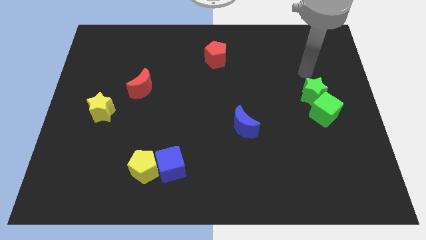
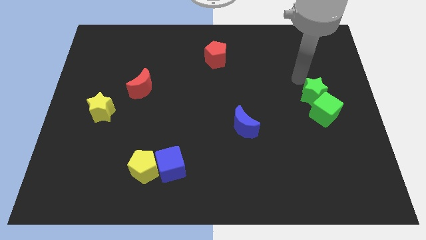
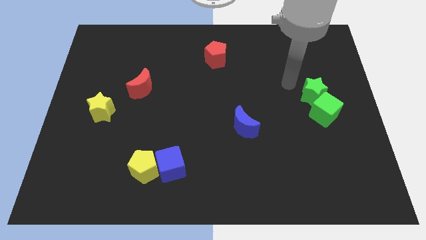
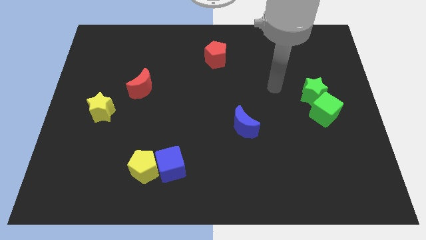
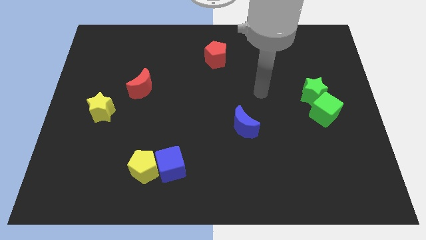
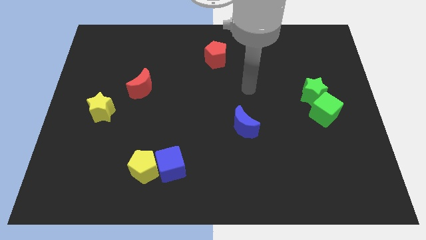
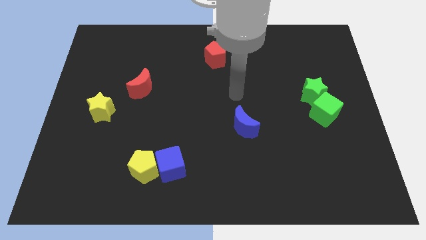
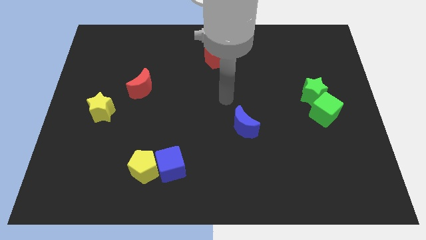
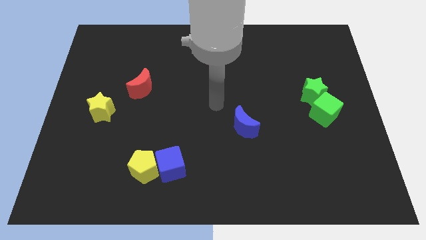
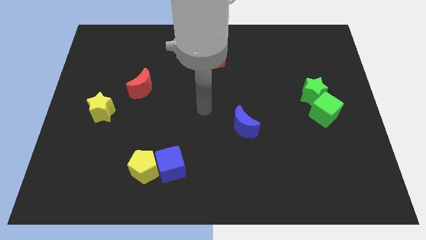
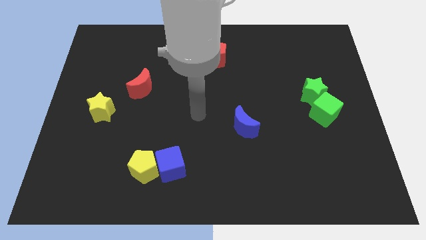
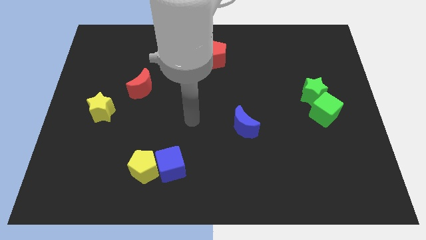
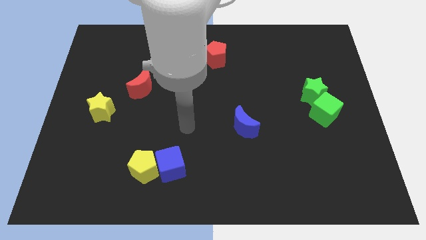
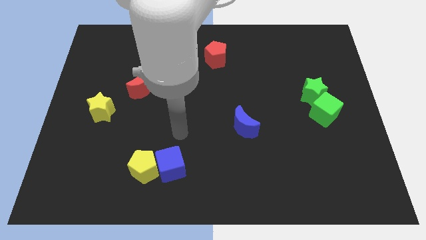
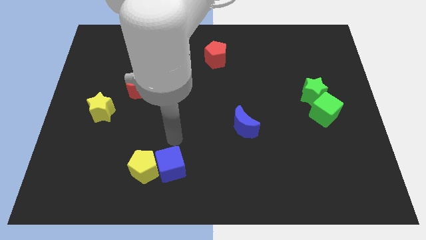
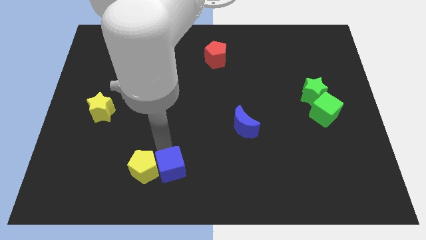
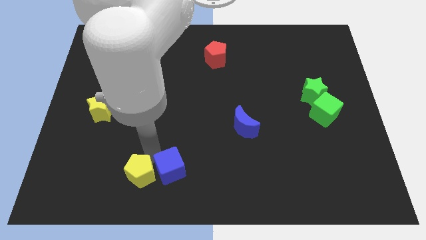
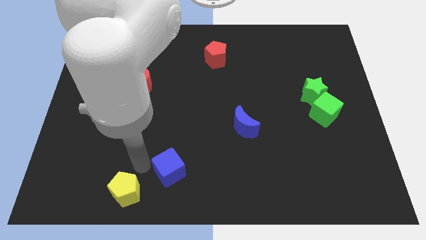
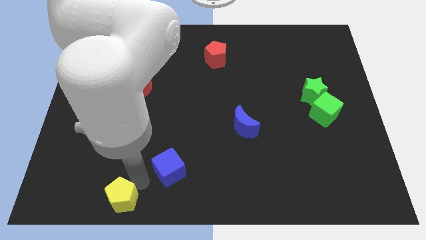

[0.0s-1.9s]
pull the blue cube apart from the yellow pentagon

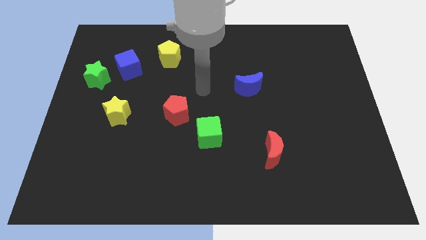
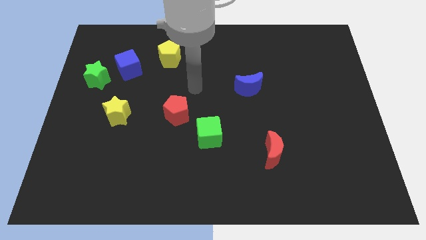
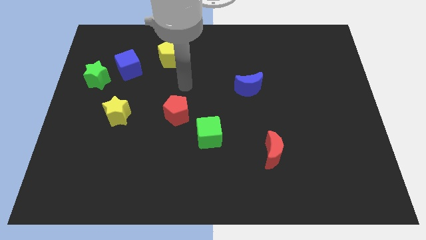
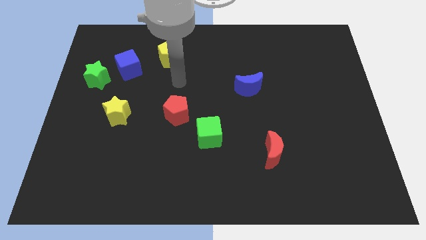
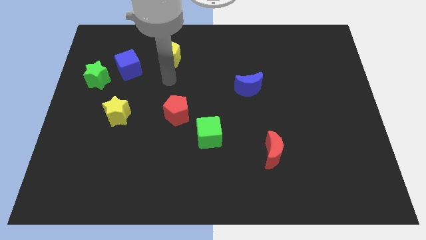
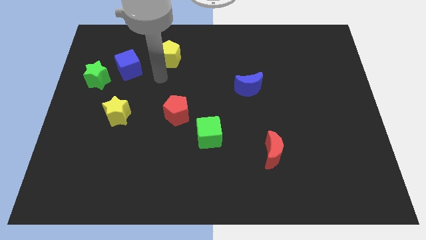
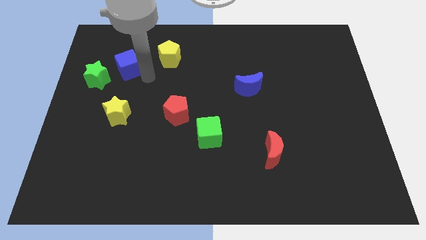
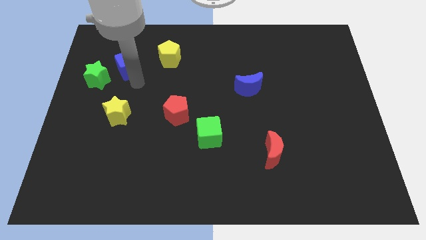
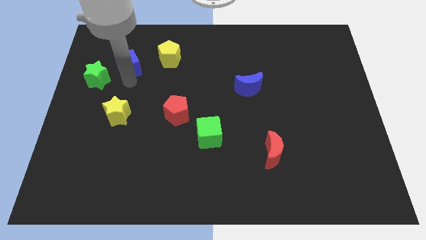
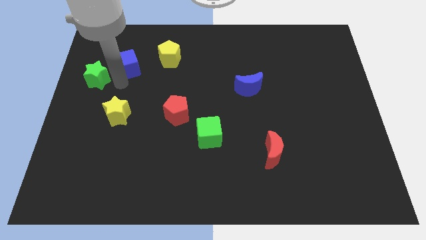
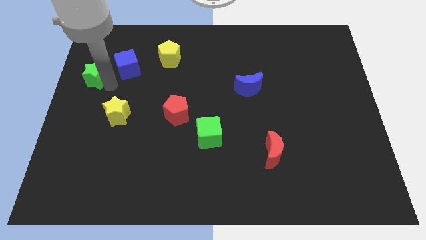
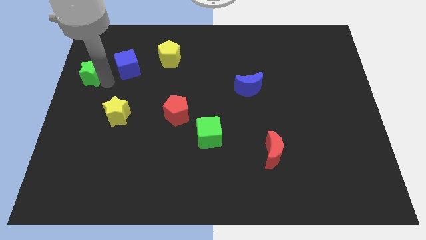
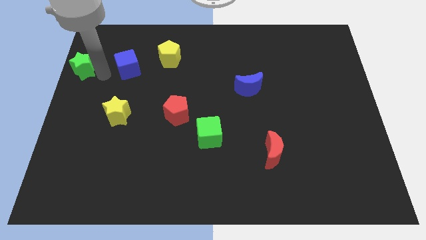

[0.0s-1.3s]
move the blue cube away from the green star

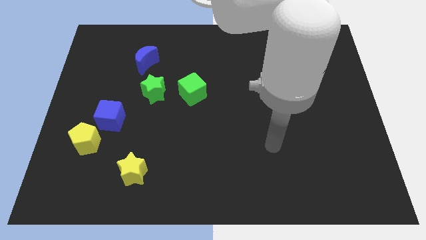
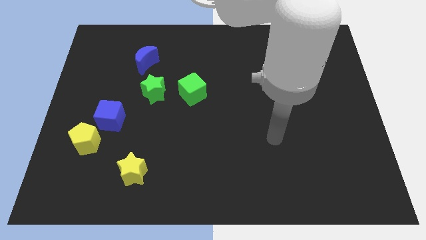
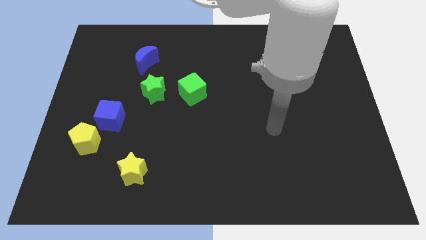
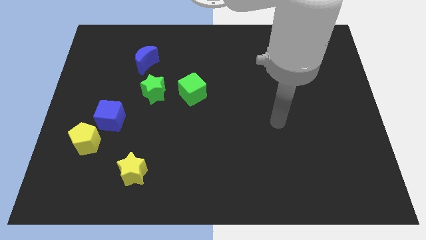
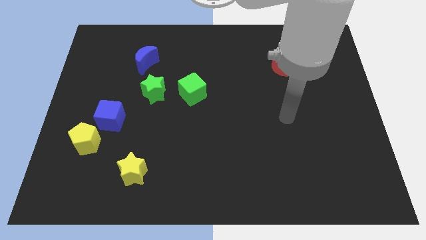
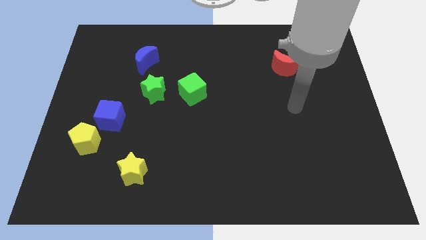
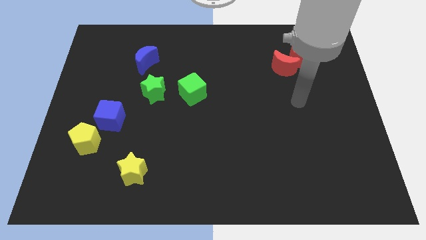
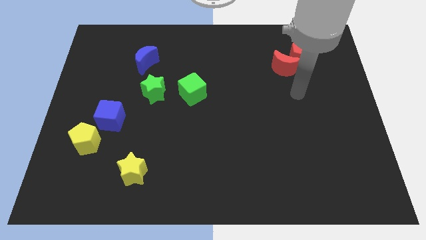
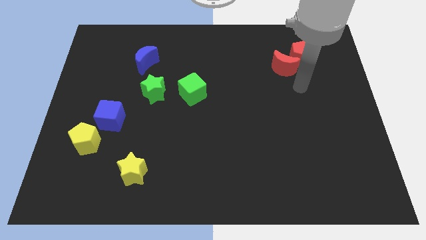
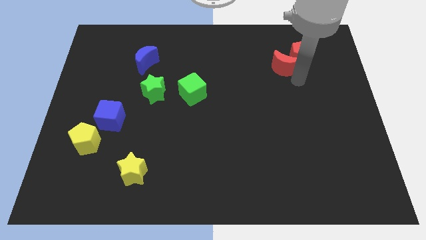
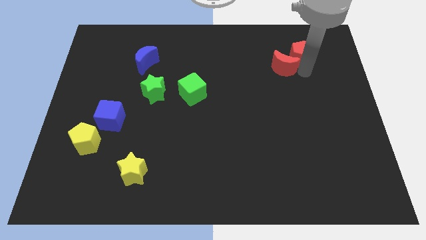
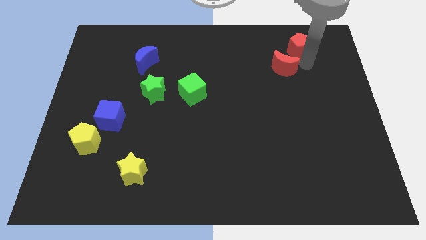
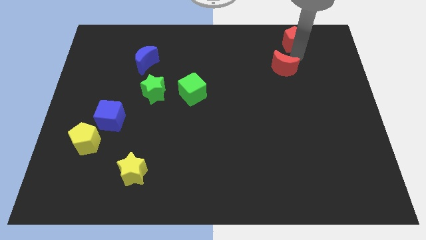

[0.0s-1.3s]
pull the red moon apart from the red pentagon

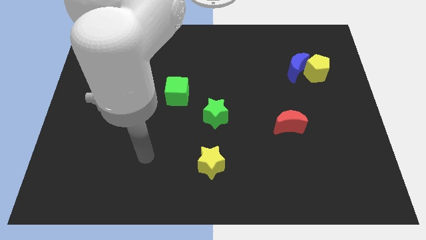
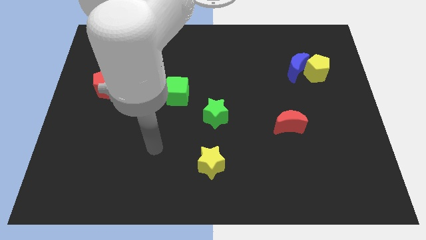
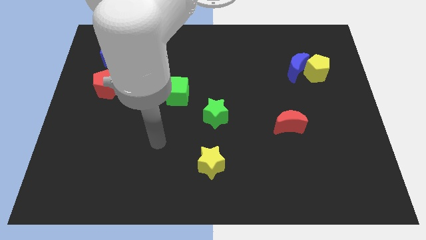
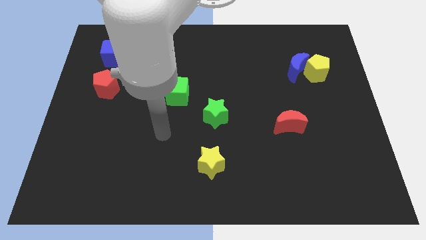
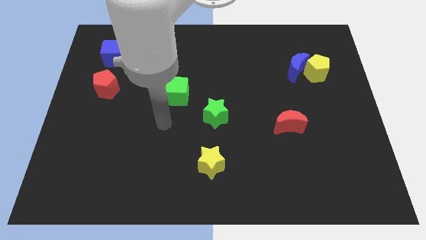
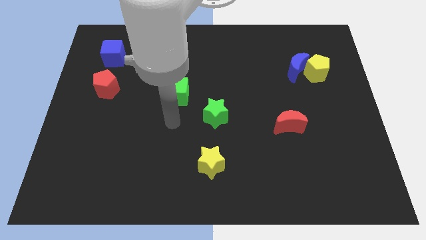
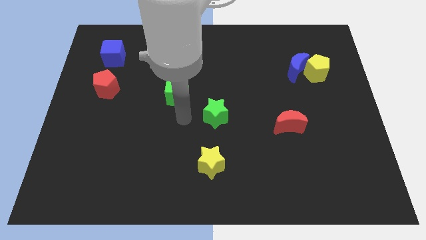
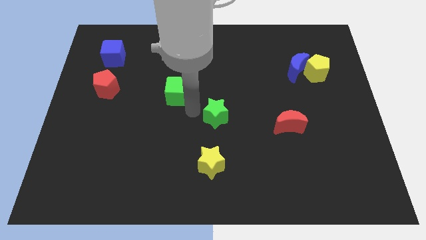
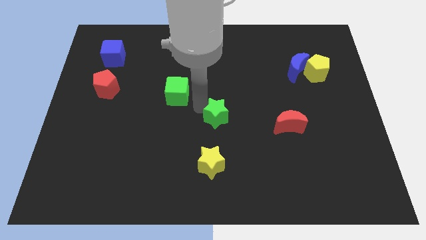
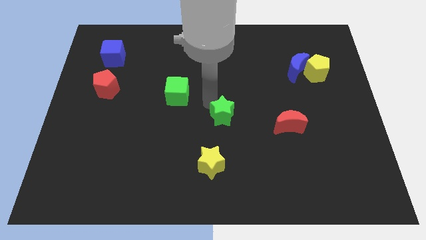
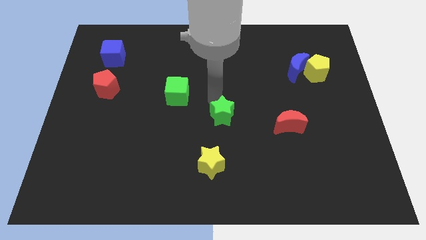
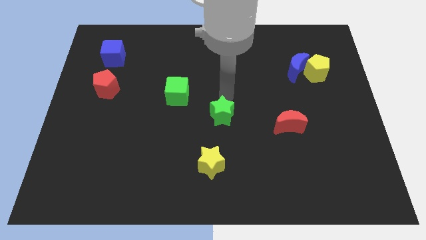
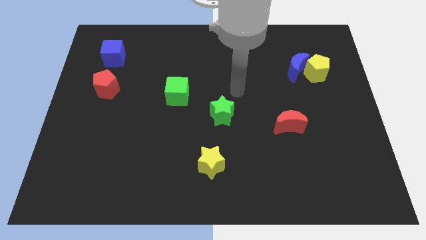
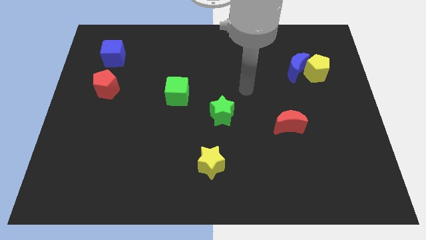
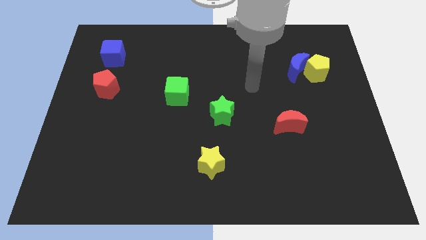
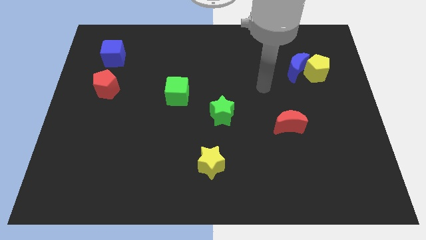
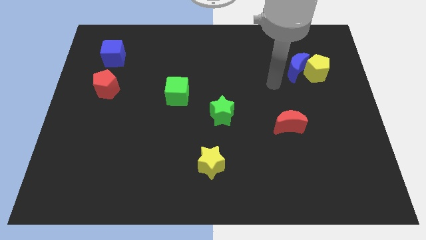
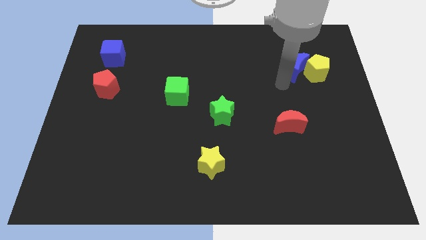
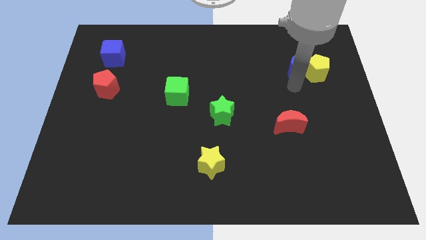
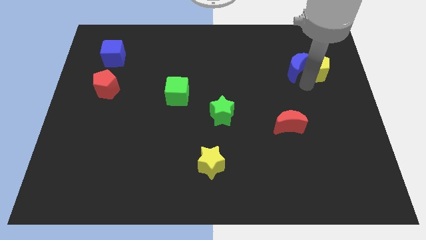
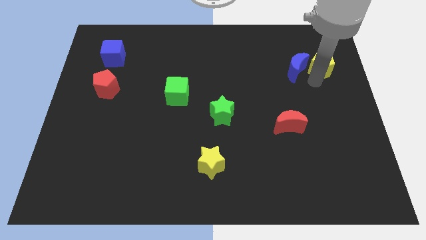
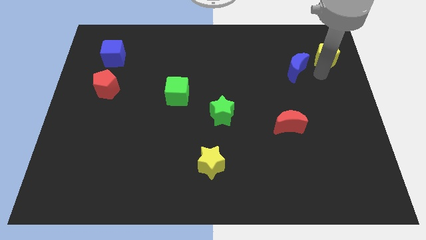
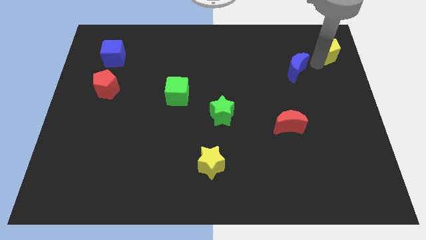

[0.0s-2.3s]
pull the blue moon apart from the yellow pentagon

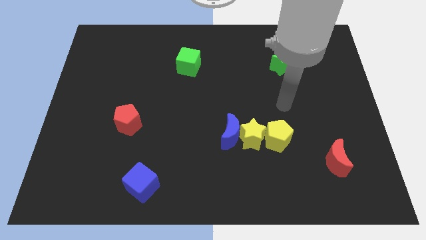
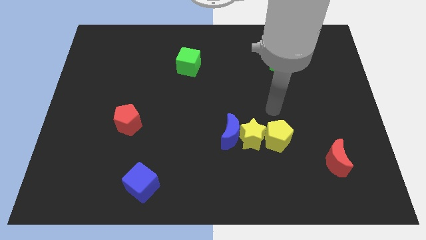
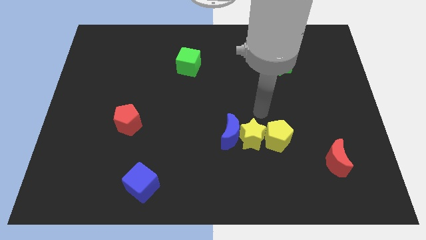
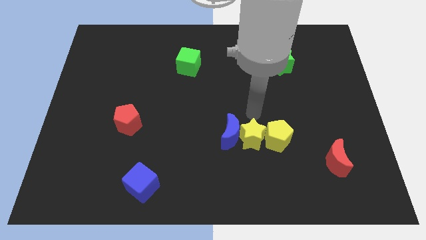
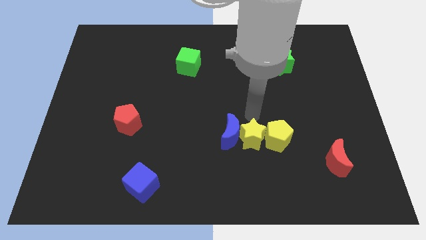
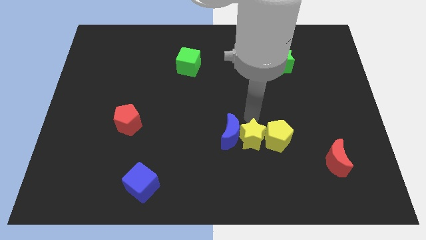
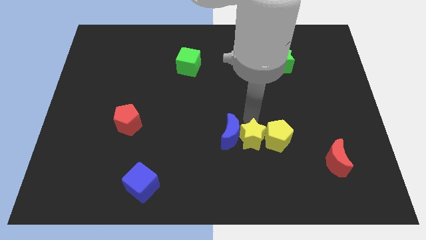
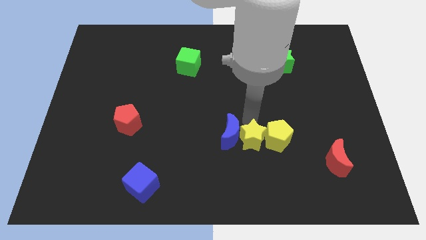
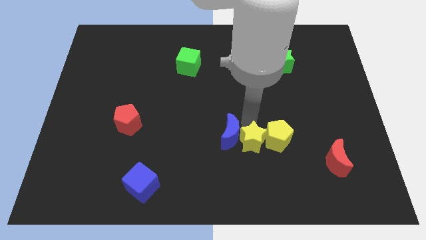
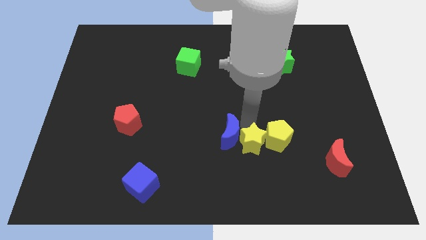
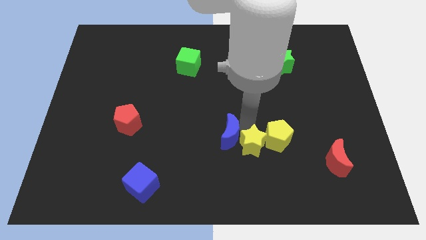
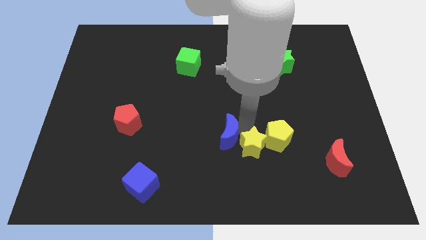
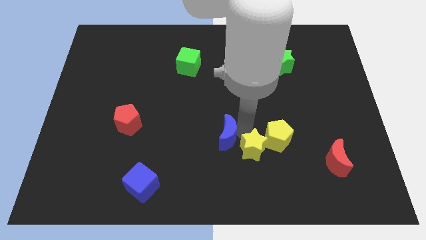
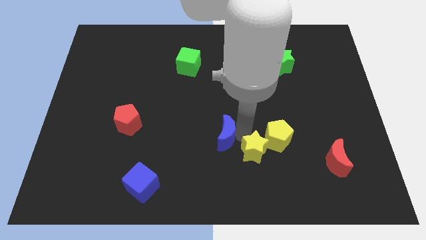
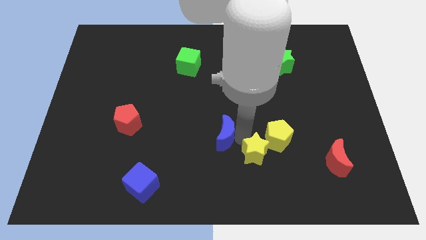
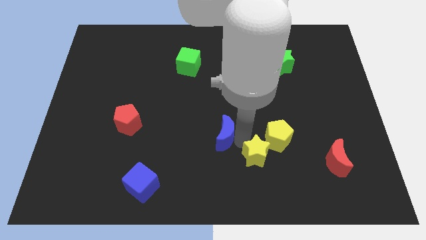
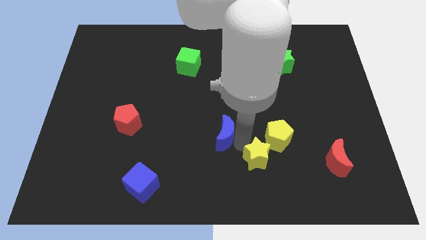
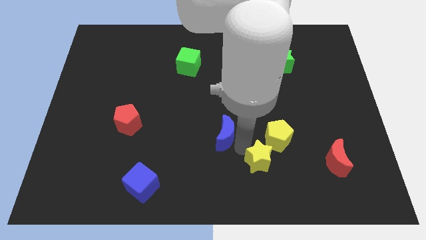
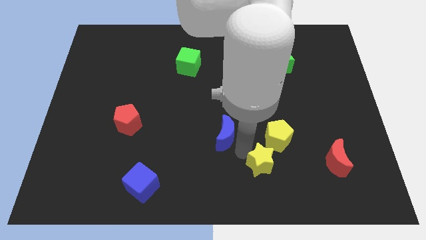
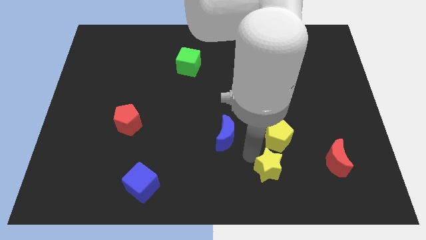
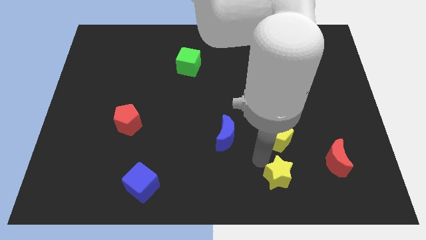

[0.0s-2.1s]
move the yellow star away from the blue moon and yellow pentagon

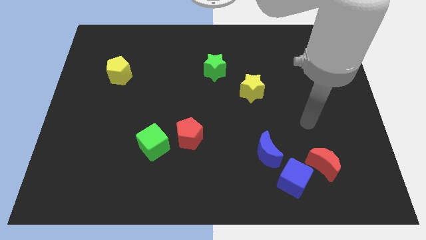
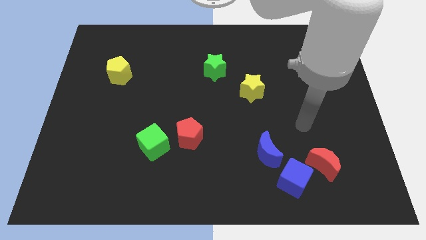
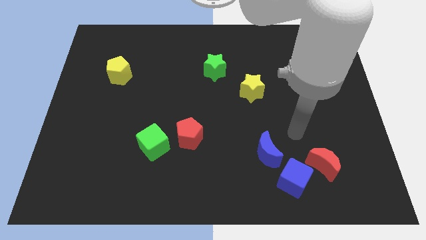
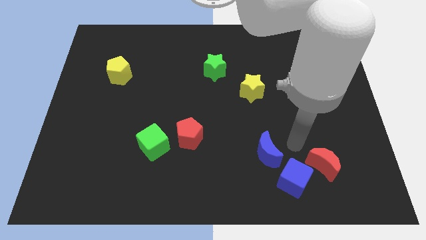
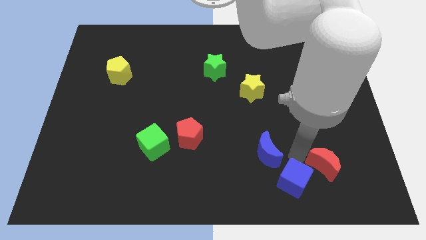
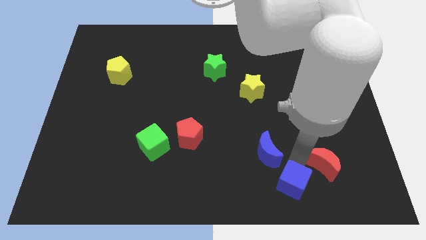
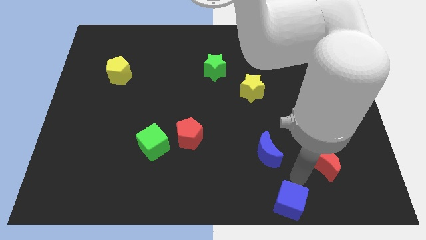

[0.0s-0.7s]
move the red moon away from the blue cube
